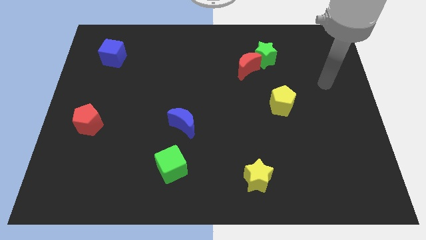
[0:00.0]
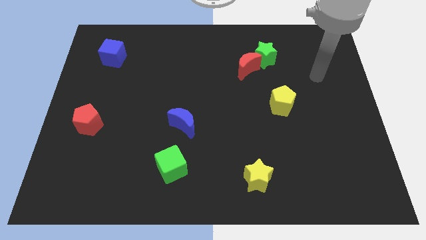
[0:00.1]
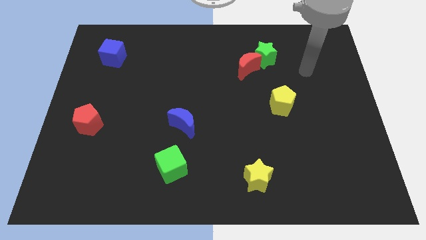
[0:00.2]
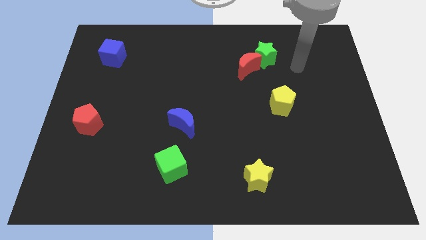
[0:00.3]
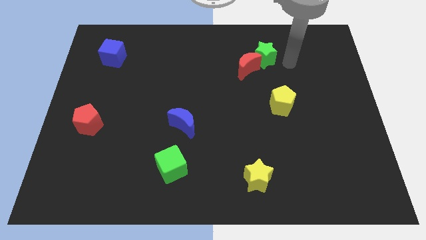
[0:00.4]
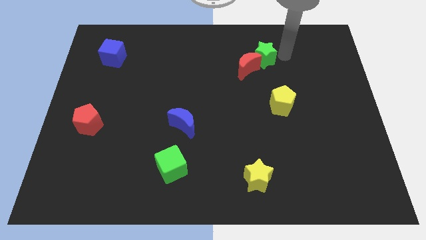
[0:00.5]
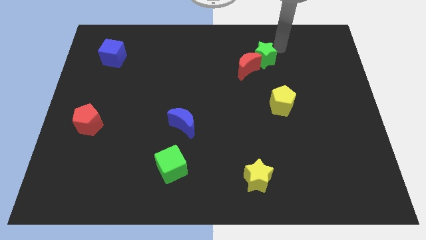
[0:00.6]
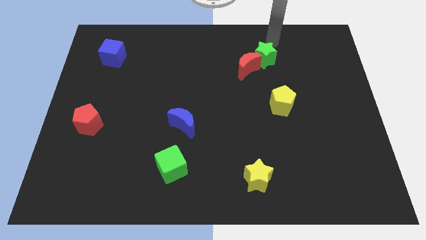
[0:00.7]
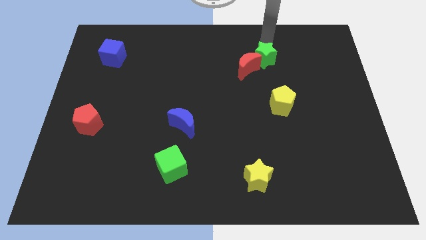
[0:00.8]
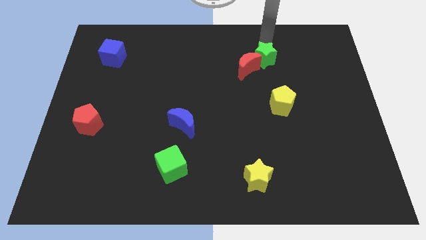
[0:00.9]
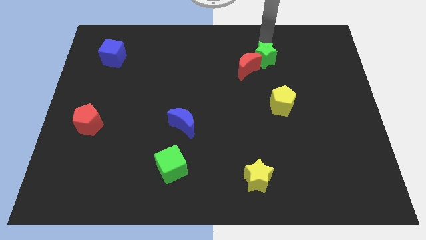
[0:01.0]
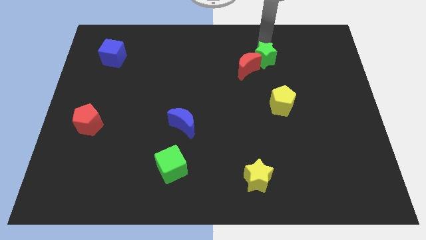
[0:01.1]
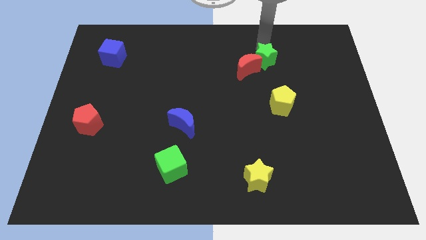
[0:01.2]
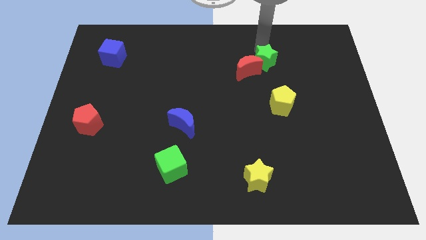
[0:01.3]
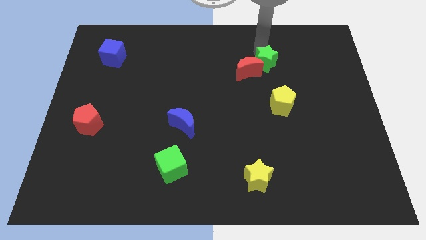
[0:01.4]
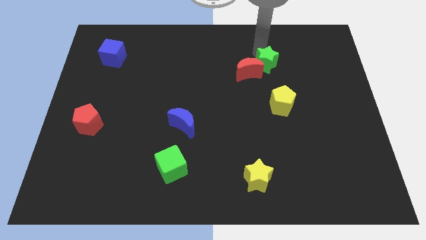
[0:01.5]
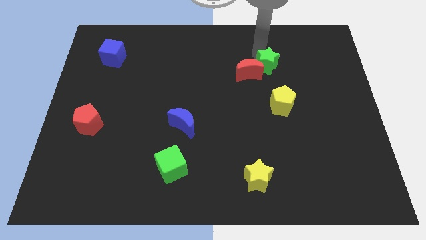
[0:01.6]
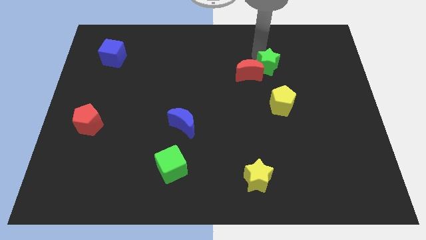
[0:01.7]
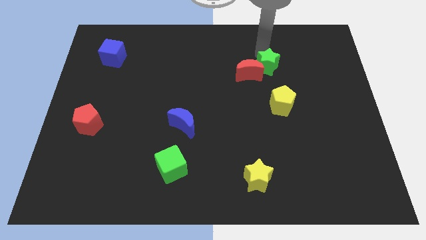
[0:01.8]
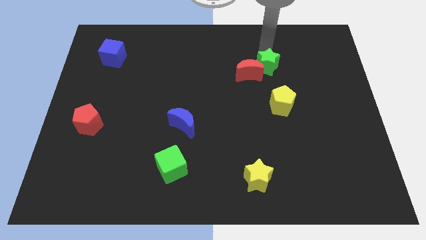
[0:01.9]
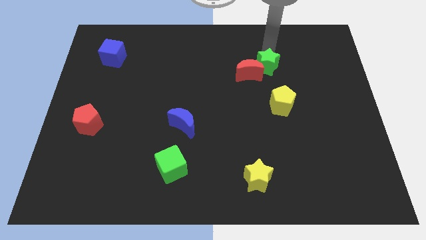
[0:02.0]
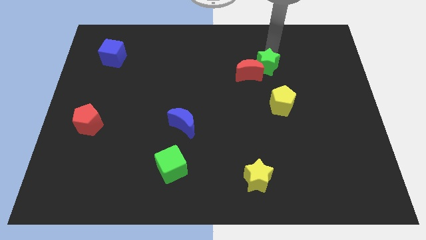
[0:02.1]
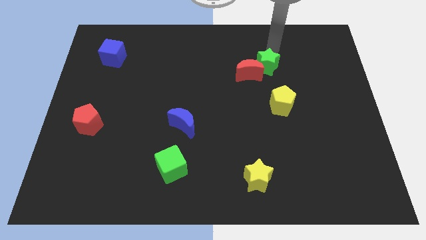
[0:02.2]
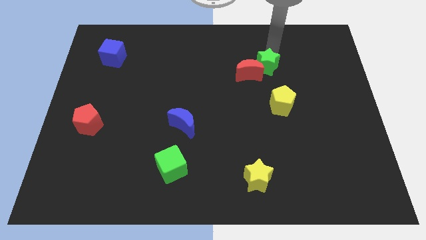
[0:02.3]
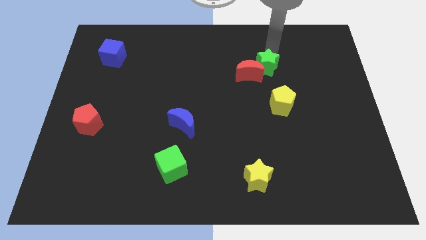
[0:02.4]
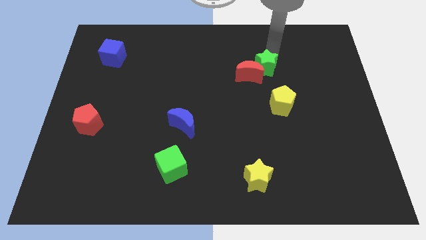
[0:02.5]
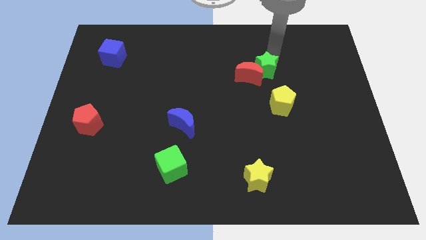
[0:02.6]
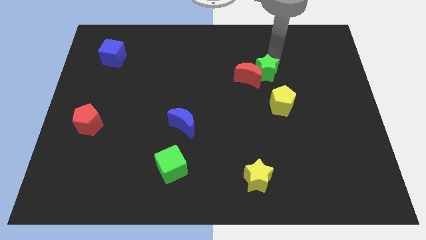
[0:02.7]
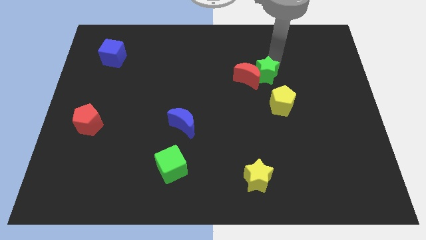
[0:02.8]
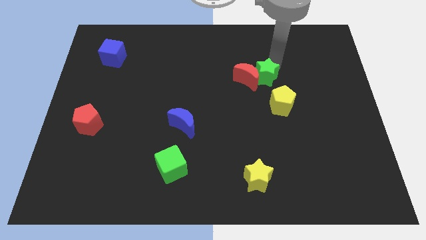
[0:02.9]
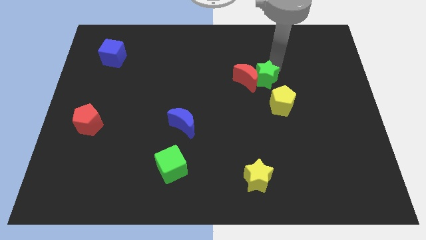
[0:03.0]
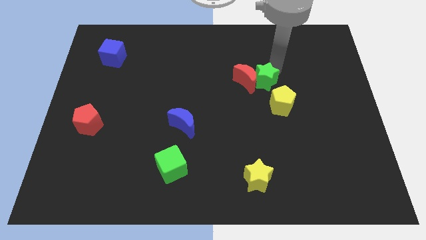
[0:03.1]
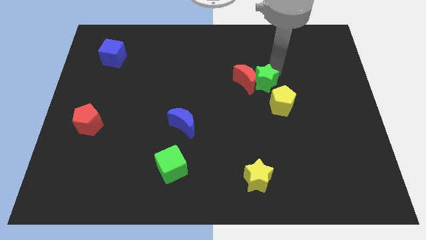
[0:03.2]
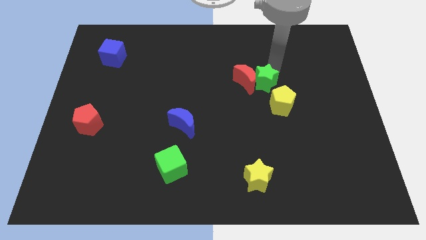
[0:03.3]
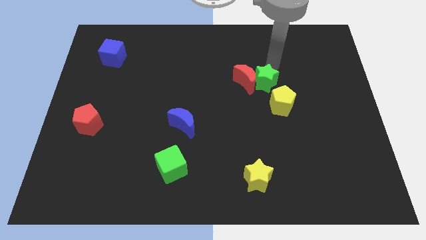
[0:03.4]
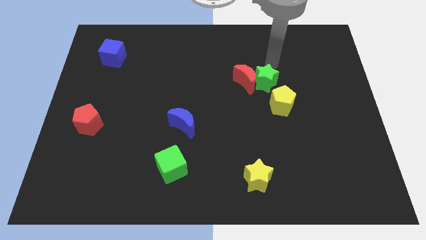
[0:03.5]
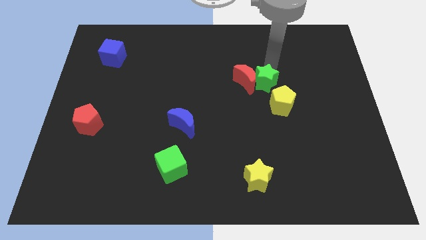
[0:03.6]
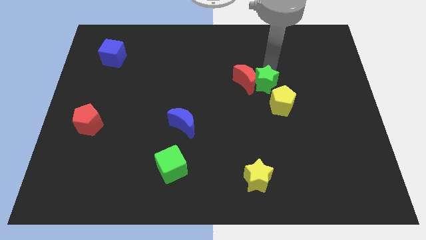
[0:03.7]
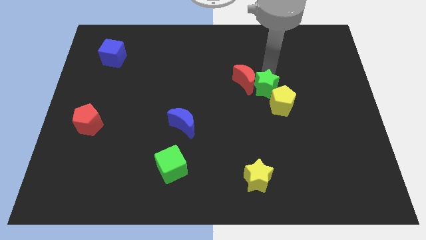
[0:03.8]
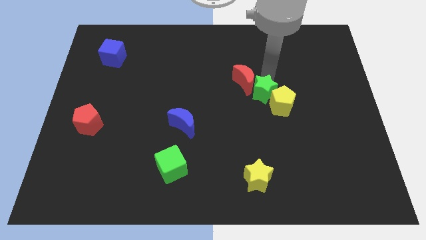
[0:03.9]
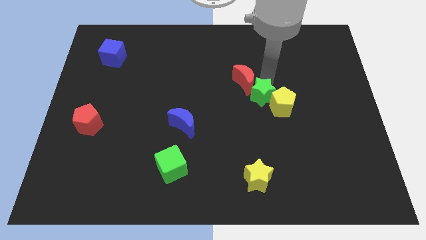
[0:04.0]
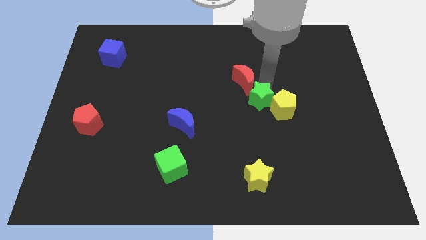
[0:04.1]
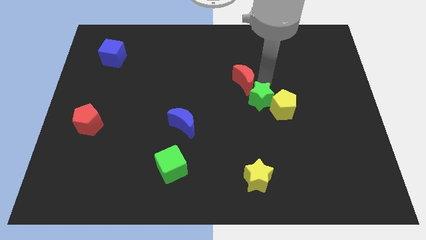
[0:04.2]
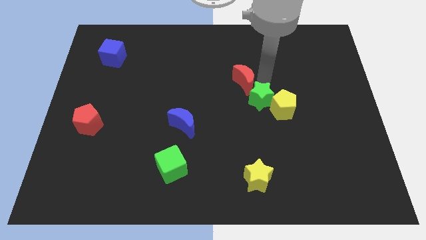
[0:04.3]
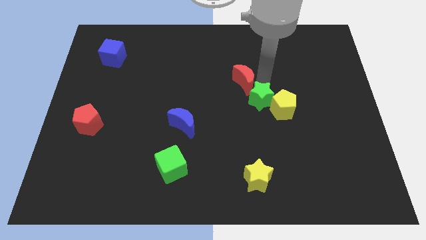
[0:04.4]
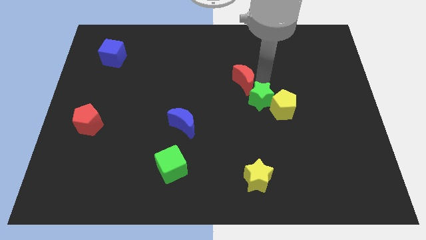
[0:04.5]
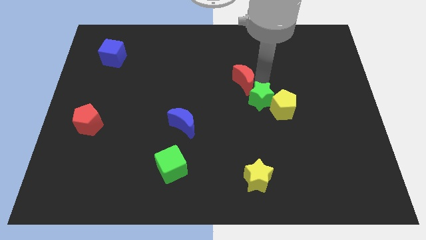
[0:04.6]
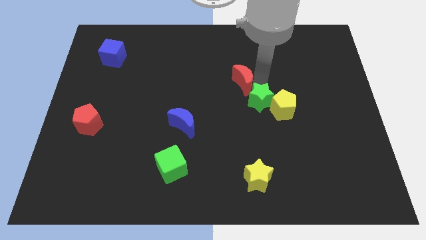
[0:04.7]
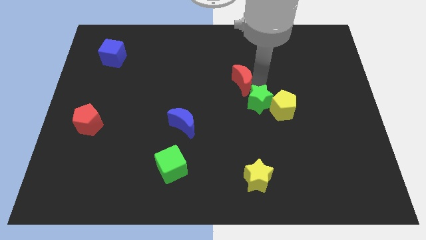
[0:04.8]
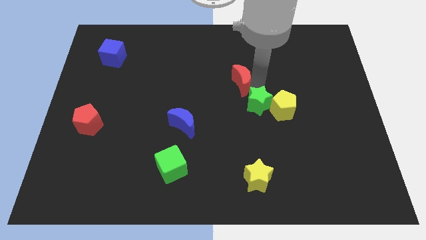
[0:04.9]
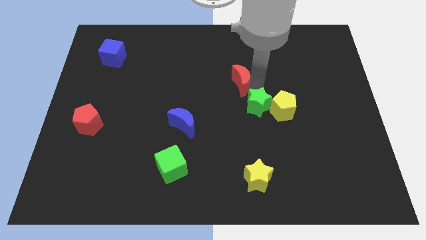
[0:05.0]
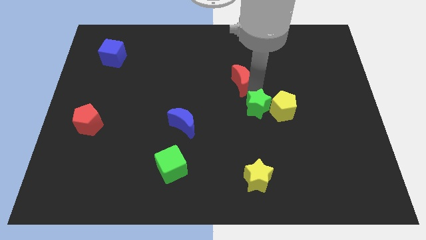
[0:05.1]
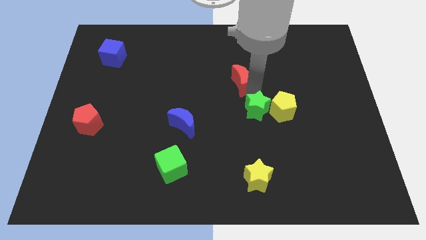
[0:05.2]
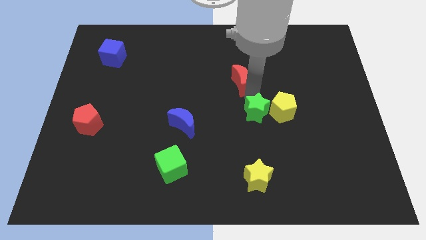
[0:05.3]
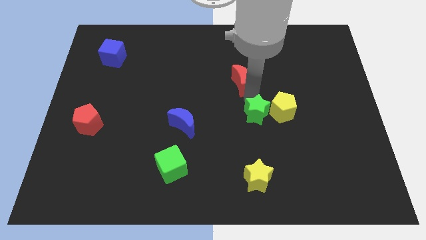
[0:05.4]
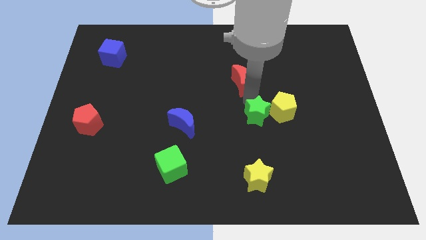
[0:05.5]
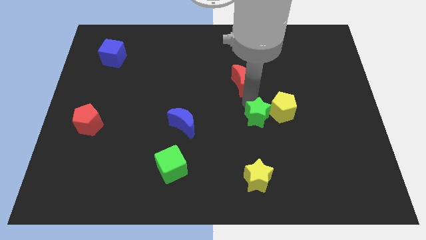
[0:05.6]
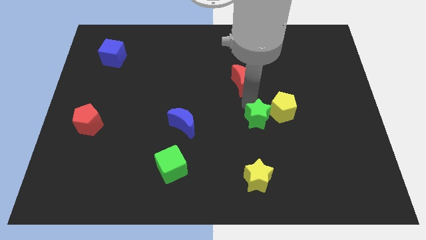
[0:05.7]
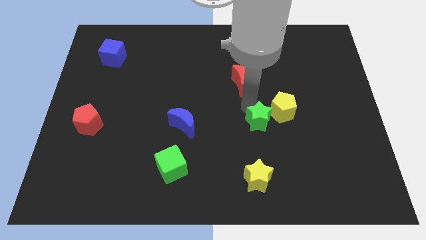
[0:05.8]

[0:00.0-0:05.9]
move the green star down

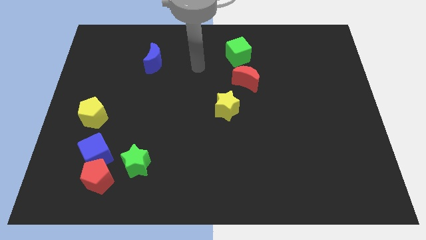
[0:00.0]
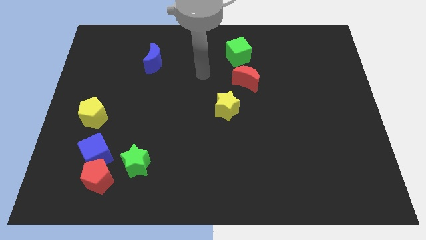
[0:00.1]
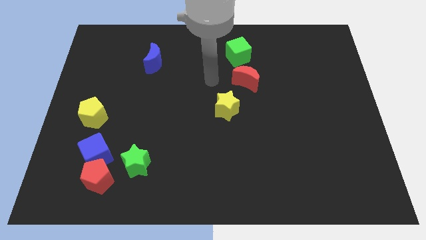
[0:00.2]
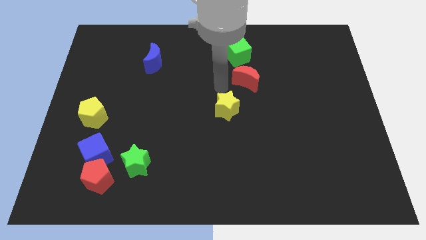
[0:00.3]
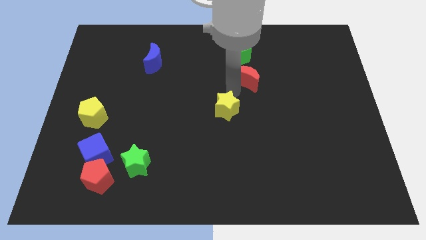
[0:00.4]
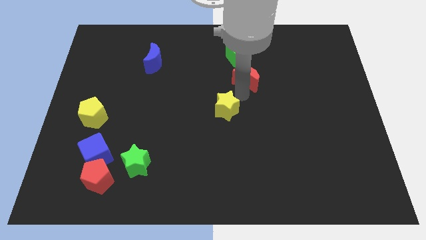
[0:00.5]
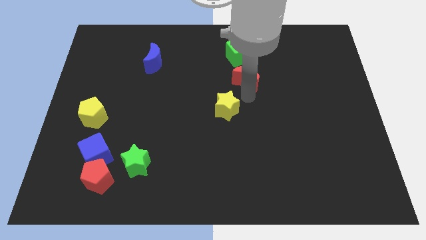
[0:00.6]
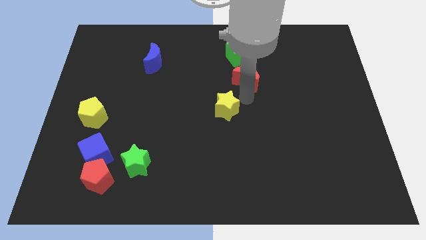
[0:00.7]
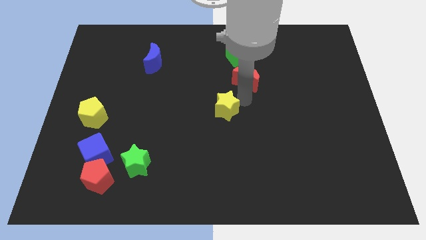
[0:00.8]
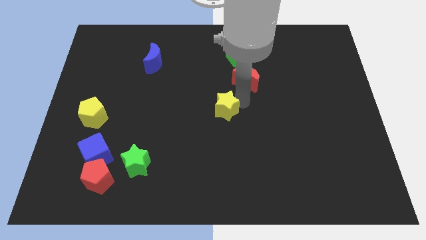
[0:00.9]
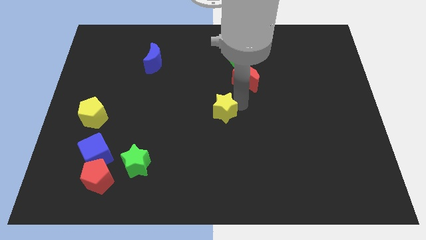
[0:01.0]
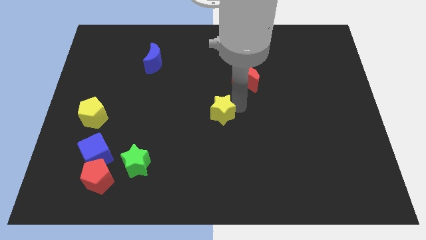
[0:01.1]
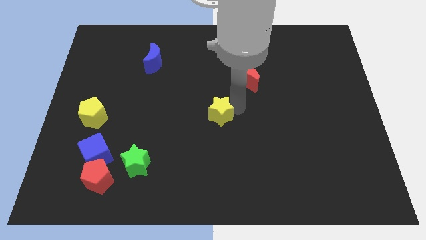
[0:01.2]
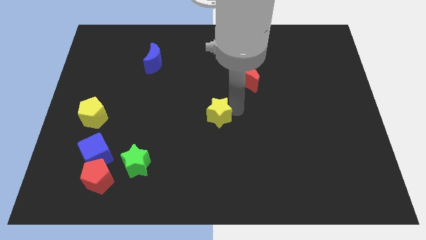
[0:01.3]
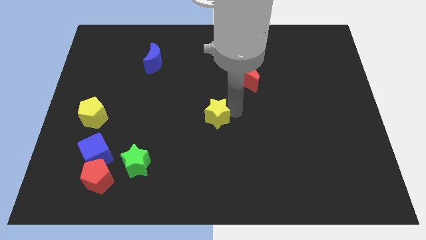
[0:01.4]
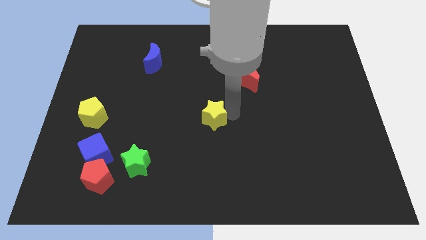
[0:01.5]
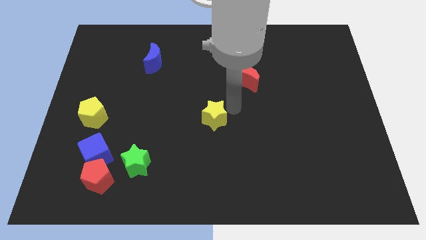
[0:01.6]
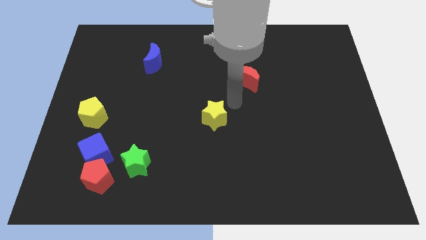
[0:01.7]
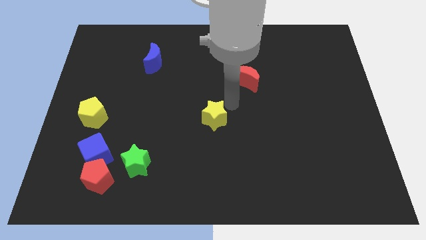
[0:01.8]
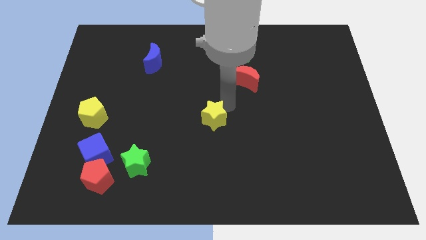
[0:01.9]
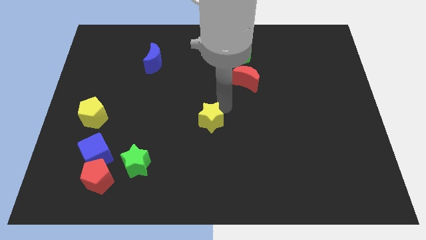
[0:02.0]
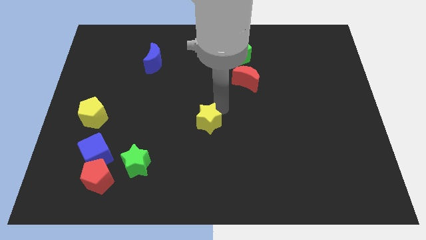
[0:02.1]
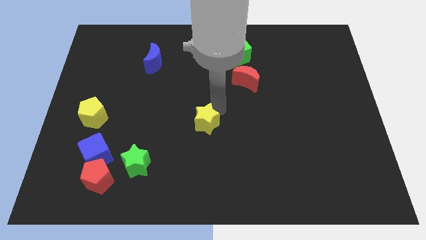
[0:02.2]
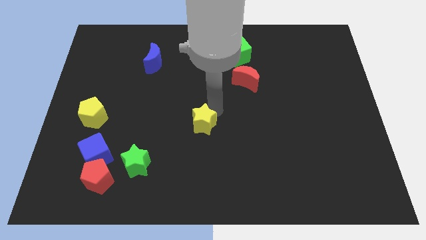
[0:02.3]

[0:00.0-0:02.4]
slide the yellow star down and then left slightly
